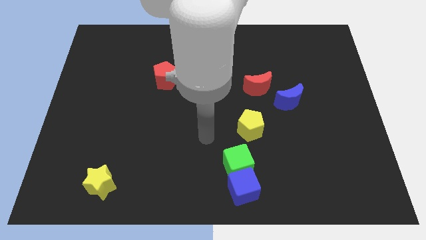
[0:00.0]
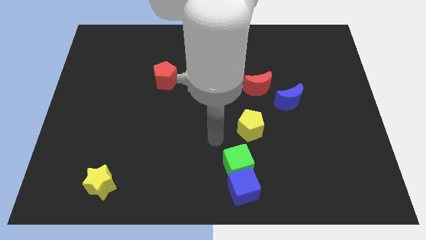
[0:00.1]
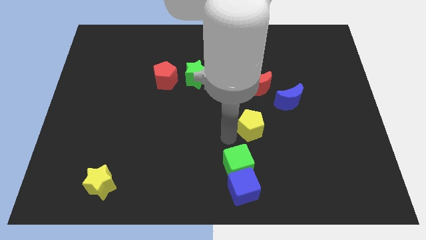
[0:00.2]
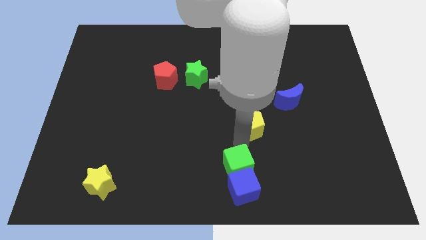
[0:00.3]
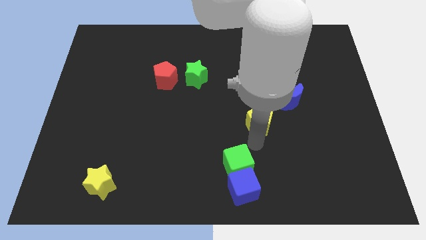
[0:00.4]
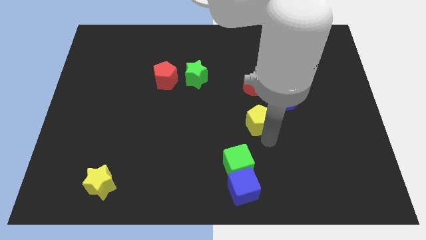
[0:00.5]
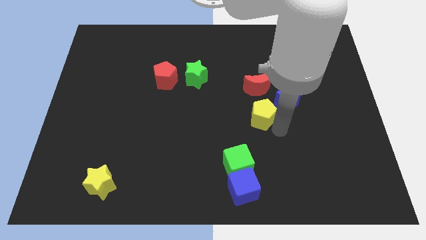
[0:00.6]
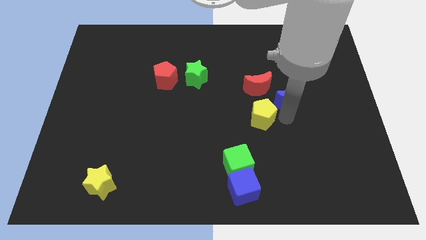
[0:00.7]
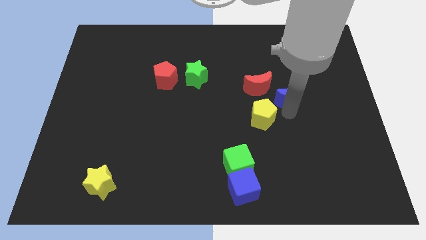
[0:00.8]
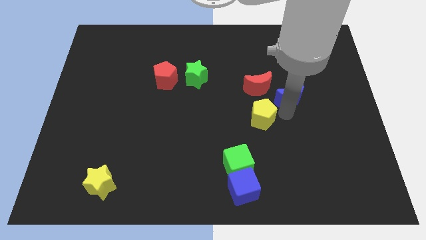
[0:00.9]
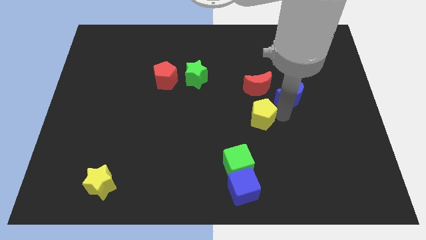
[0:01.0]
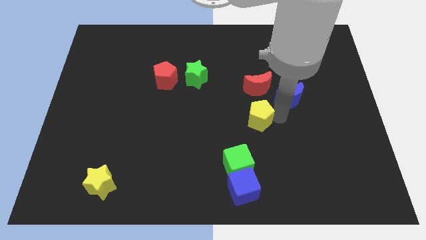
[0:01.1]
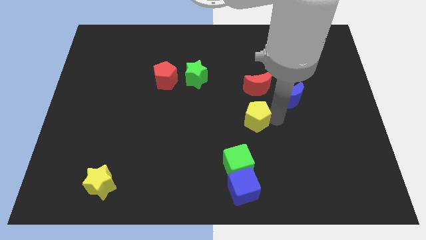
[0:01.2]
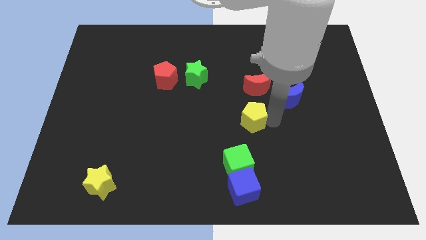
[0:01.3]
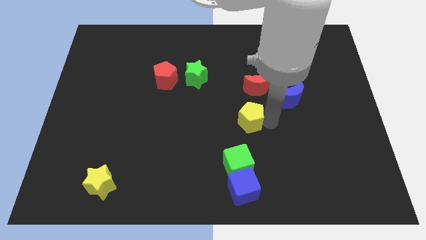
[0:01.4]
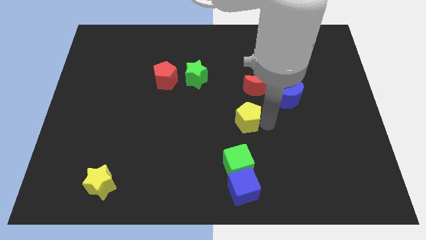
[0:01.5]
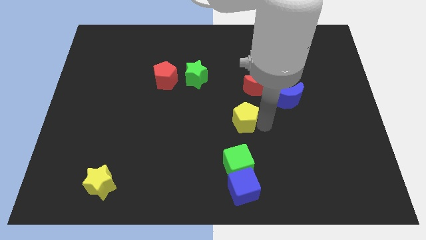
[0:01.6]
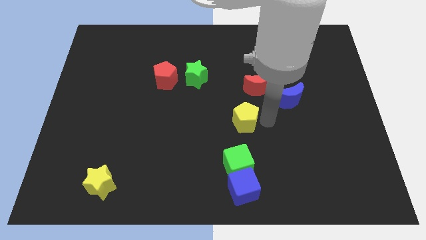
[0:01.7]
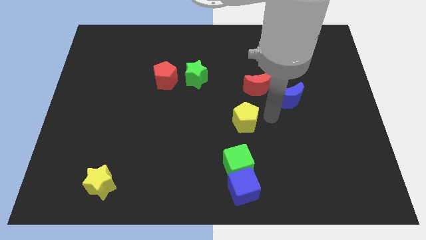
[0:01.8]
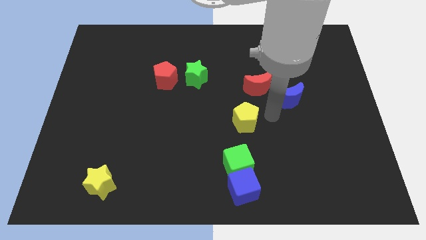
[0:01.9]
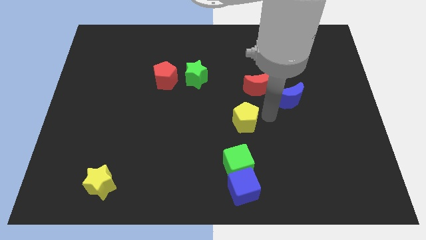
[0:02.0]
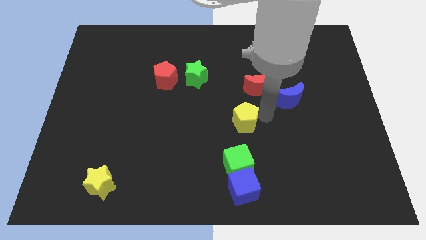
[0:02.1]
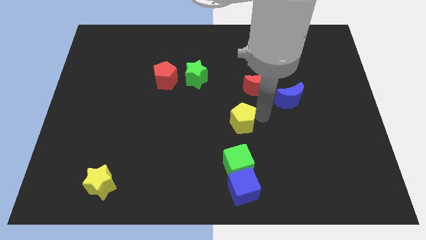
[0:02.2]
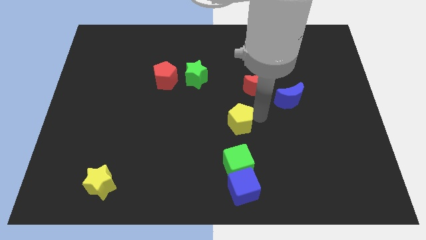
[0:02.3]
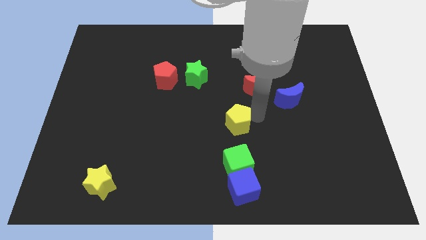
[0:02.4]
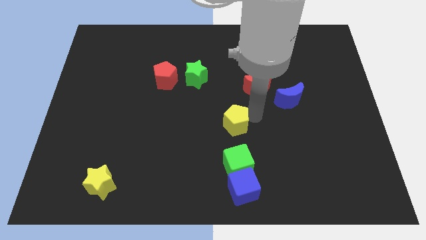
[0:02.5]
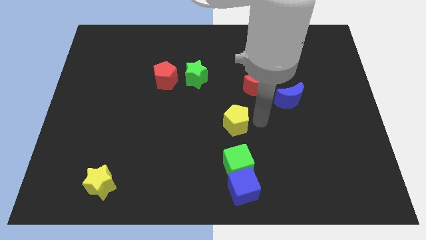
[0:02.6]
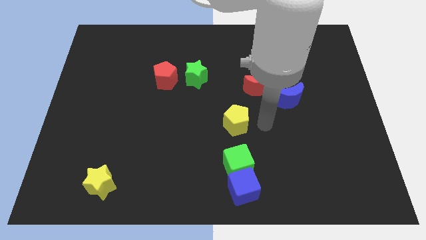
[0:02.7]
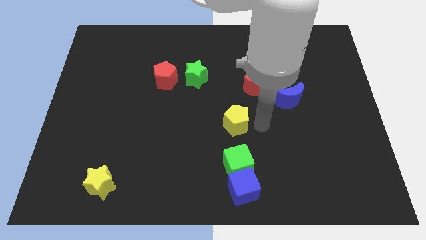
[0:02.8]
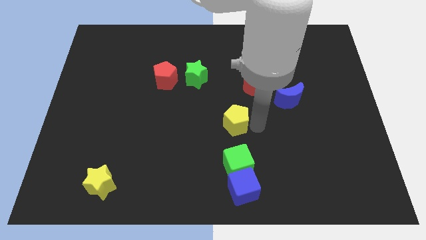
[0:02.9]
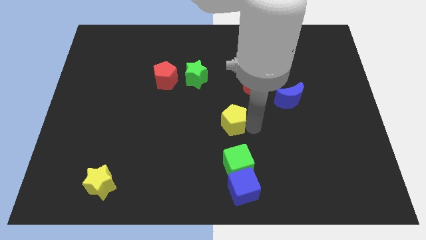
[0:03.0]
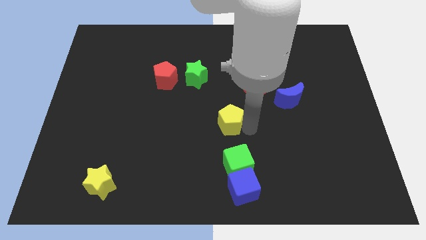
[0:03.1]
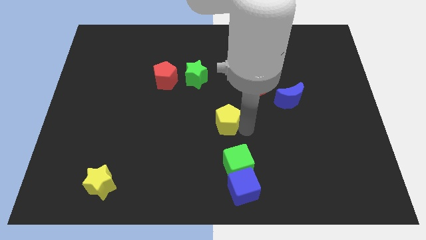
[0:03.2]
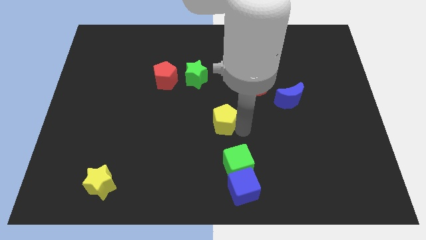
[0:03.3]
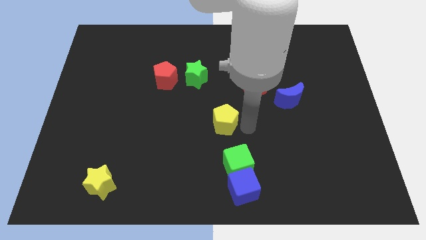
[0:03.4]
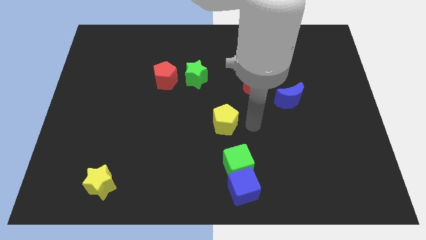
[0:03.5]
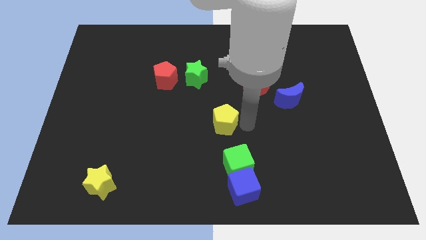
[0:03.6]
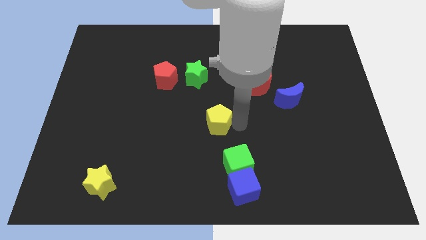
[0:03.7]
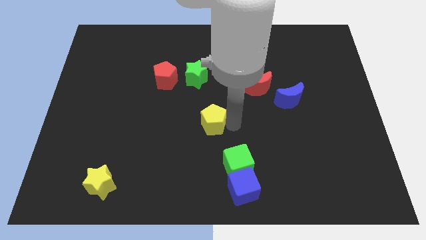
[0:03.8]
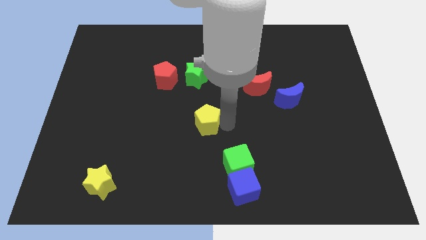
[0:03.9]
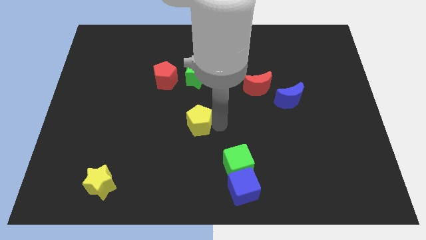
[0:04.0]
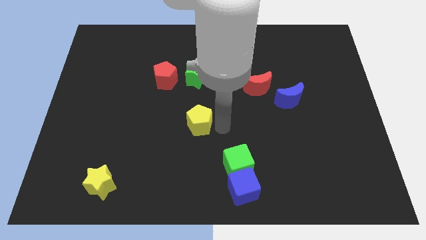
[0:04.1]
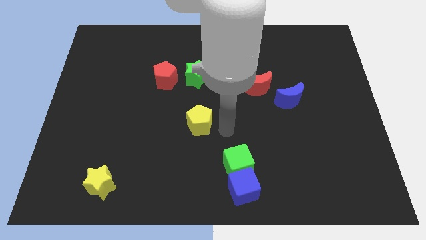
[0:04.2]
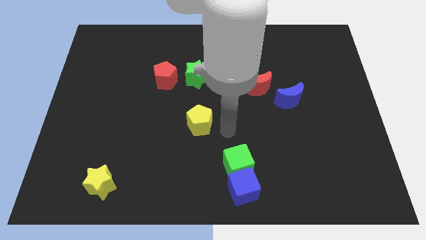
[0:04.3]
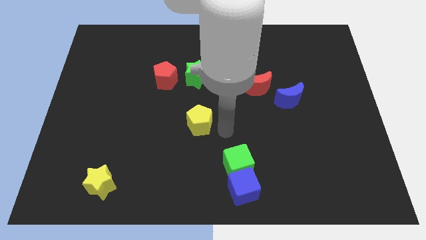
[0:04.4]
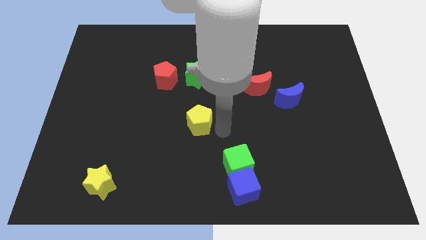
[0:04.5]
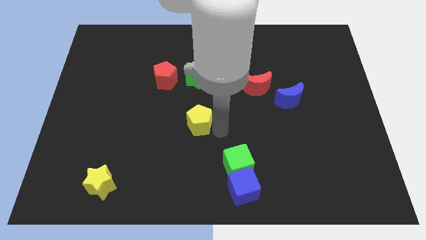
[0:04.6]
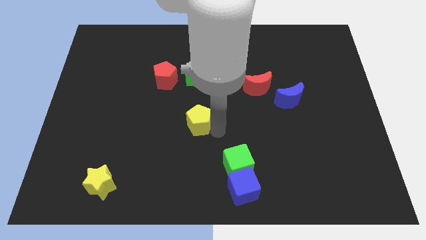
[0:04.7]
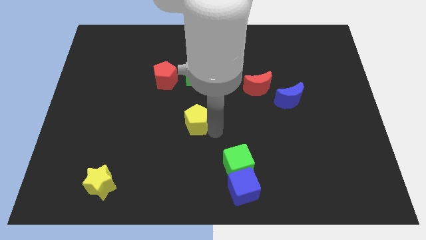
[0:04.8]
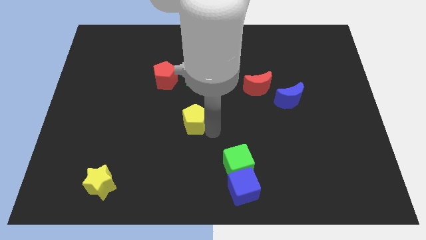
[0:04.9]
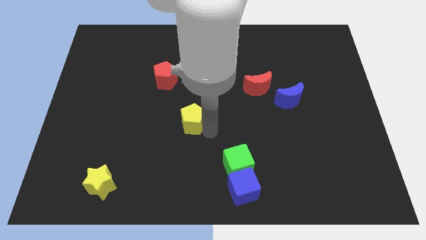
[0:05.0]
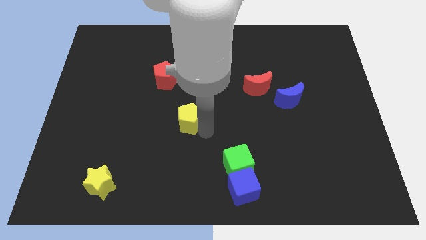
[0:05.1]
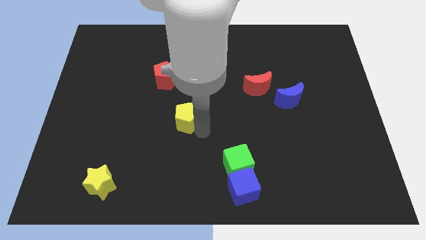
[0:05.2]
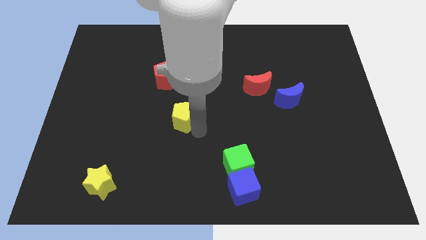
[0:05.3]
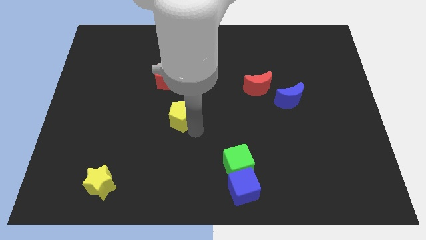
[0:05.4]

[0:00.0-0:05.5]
slide the yellow pentagon to the bottom of the red pentagon

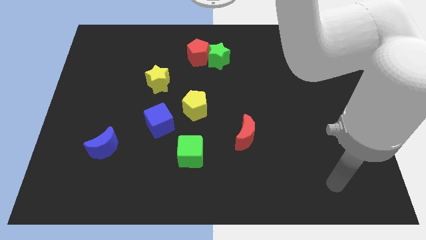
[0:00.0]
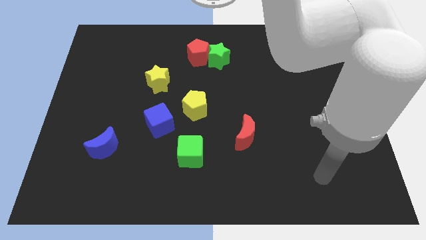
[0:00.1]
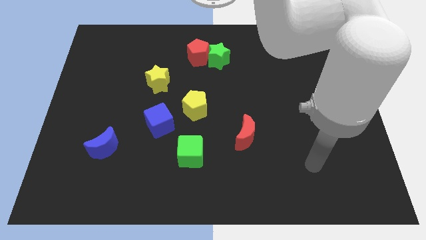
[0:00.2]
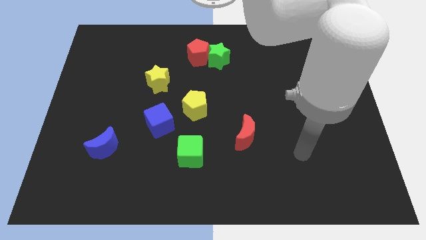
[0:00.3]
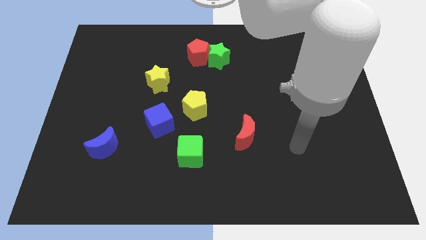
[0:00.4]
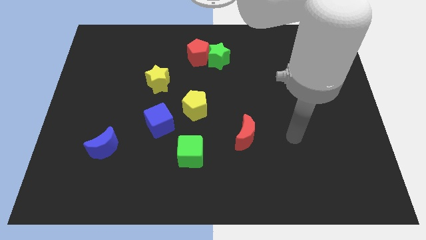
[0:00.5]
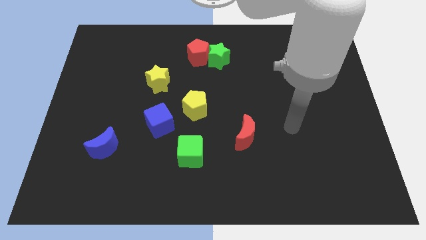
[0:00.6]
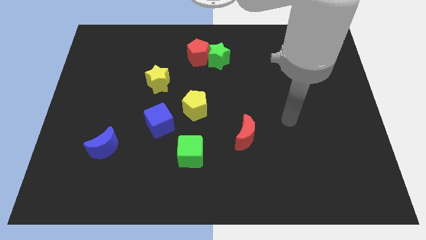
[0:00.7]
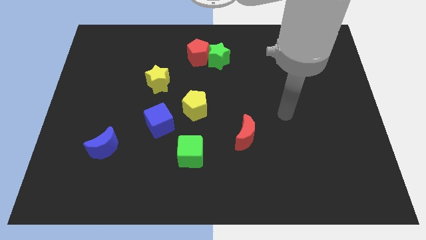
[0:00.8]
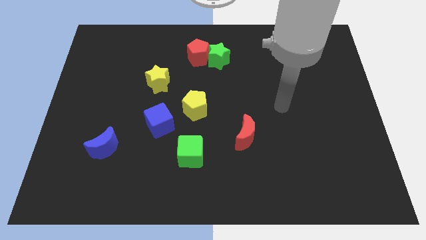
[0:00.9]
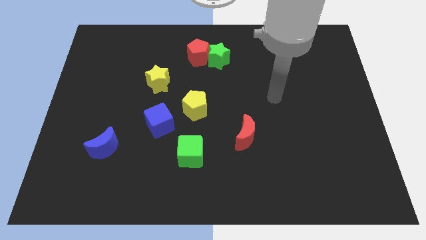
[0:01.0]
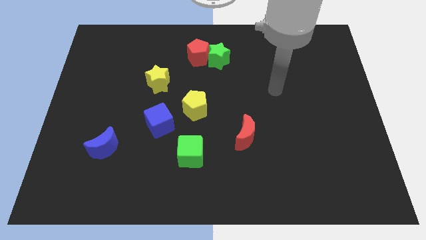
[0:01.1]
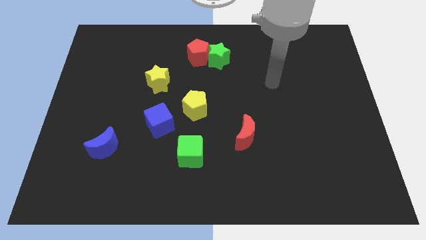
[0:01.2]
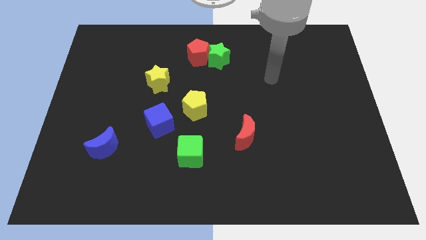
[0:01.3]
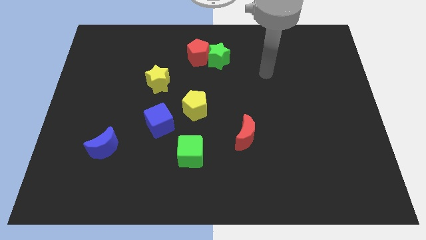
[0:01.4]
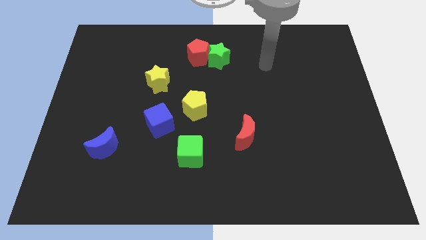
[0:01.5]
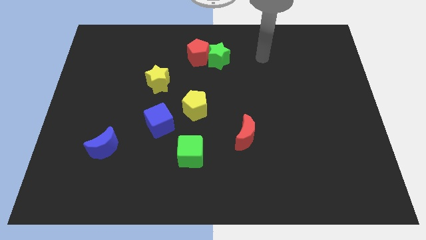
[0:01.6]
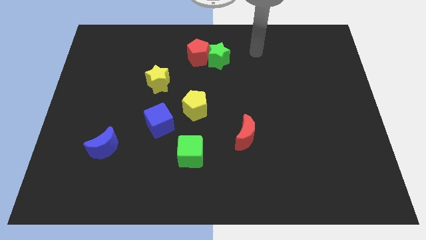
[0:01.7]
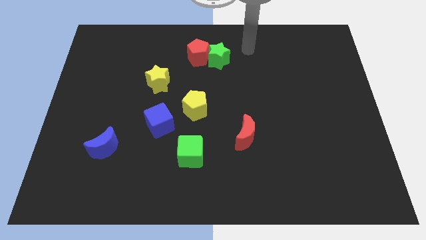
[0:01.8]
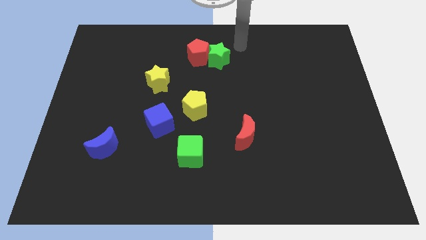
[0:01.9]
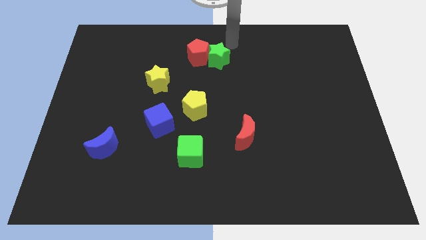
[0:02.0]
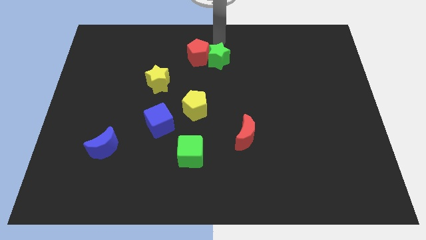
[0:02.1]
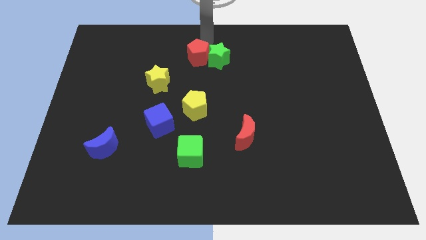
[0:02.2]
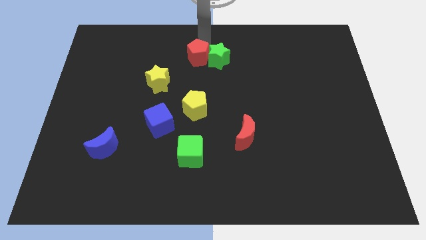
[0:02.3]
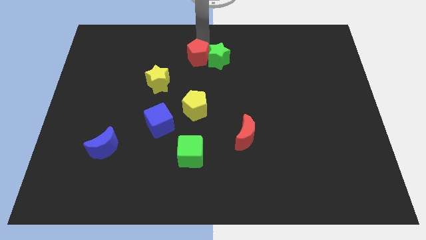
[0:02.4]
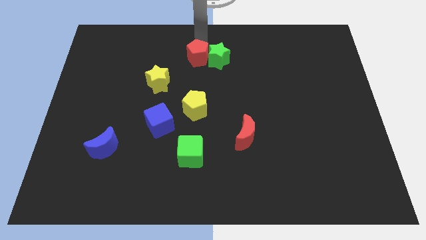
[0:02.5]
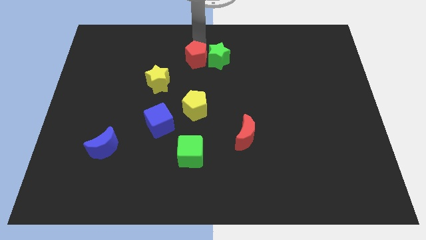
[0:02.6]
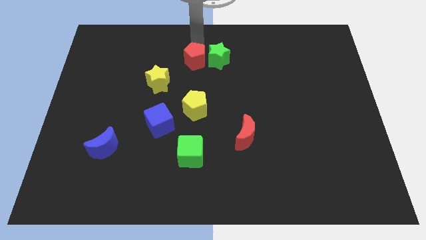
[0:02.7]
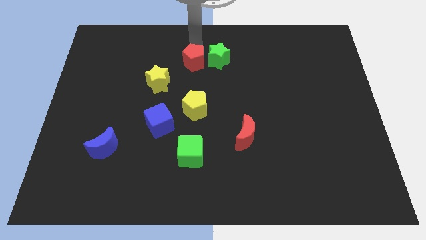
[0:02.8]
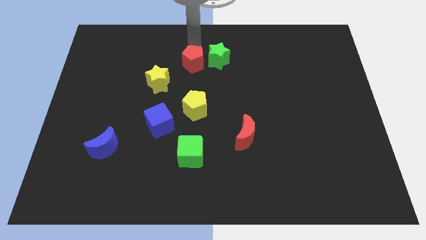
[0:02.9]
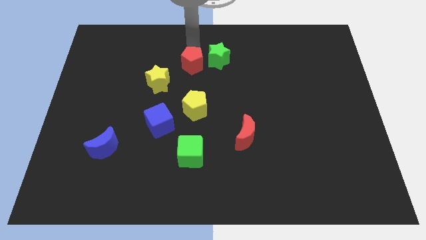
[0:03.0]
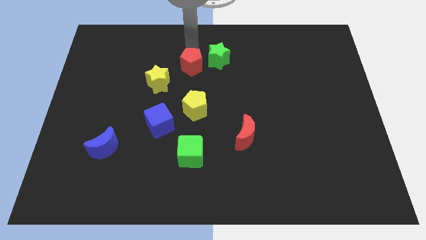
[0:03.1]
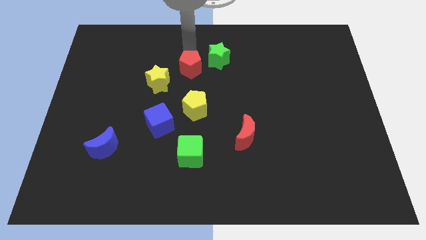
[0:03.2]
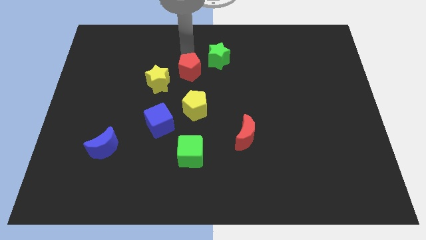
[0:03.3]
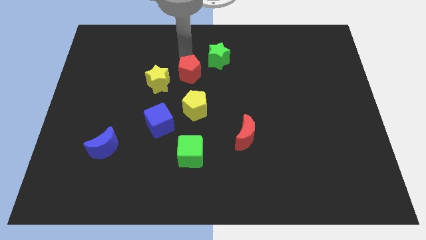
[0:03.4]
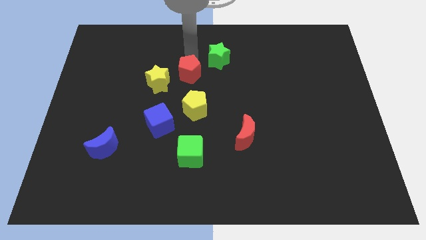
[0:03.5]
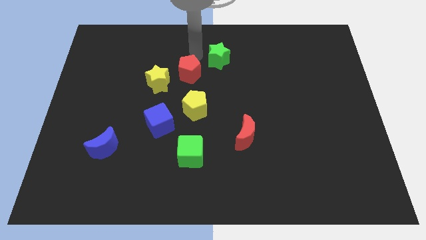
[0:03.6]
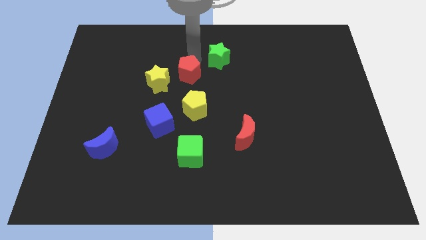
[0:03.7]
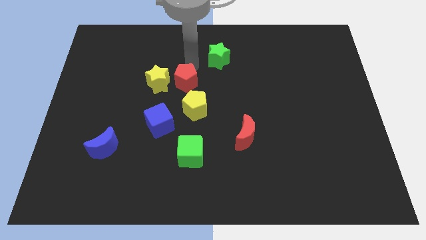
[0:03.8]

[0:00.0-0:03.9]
push the red pentagon to the bottom right of the yellow star
